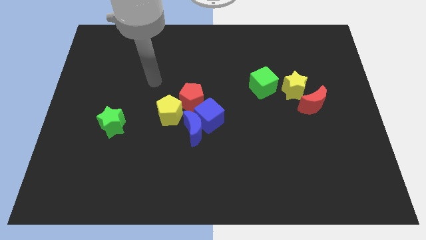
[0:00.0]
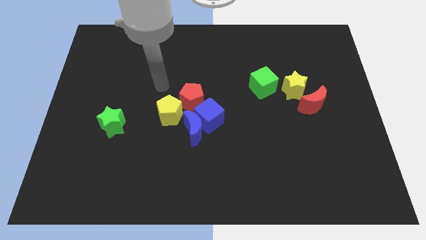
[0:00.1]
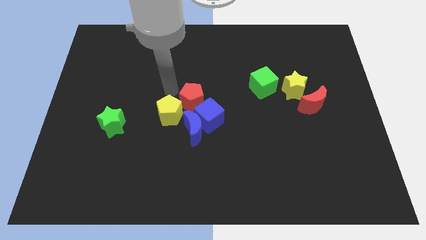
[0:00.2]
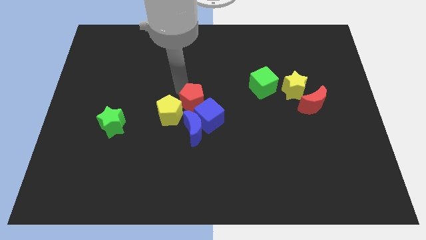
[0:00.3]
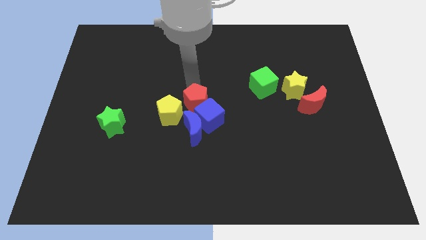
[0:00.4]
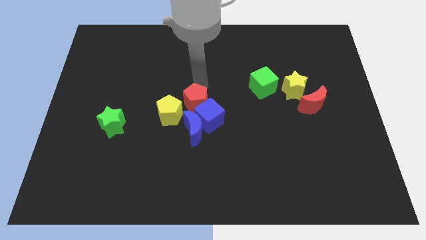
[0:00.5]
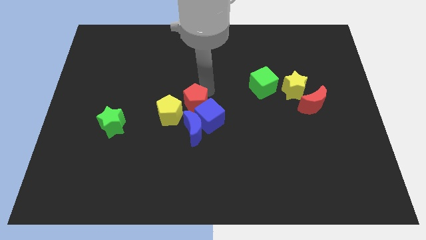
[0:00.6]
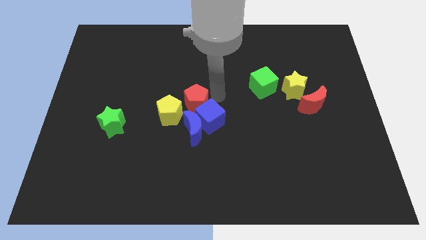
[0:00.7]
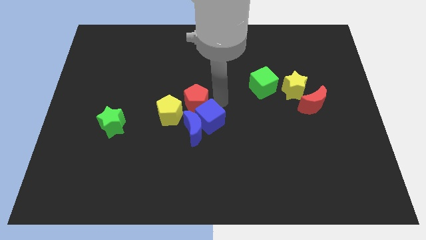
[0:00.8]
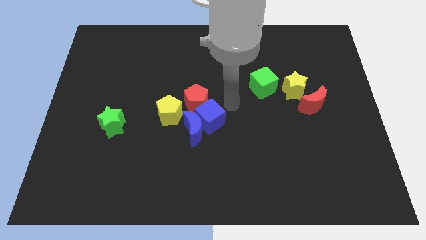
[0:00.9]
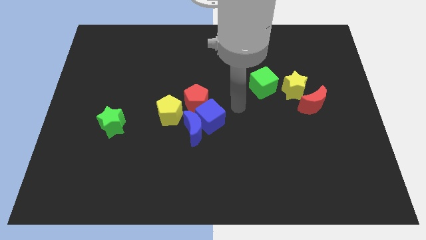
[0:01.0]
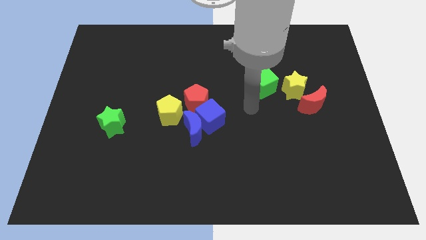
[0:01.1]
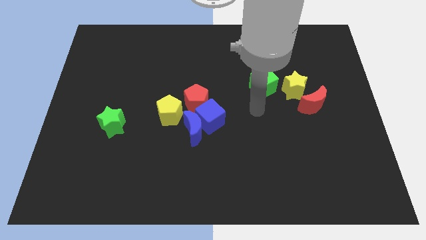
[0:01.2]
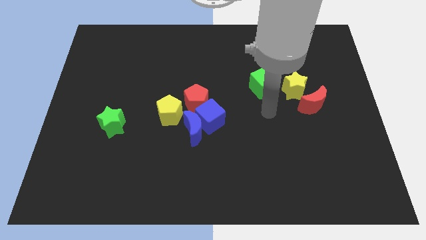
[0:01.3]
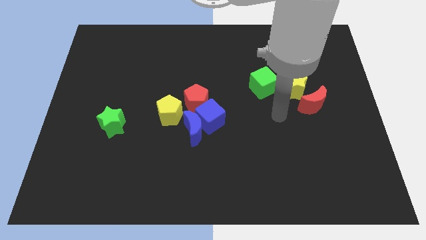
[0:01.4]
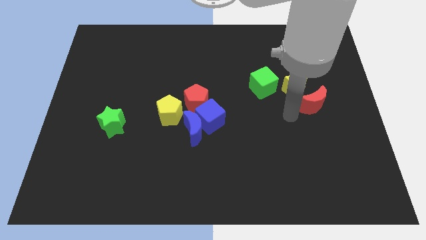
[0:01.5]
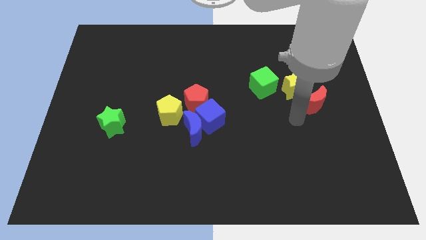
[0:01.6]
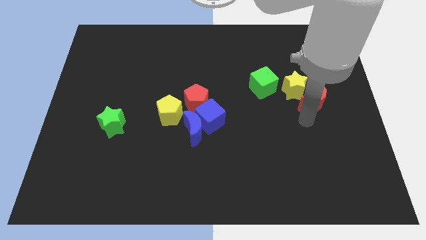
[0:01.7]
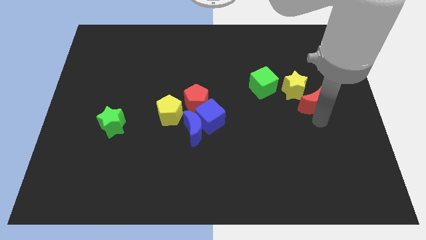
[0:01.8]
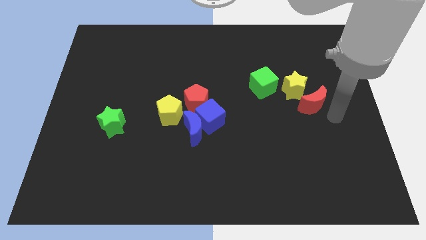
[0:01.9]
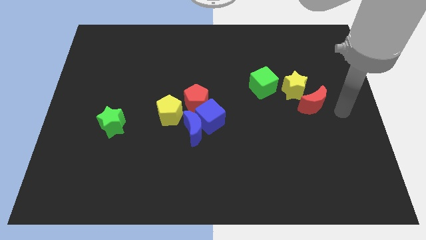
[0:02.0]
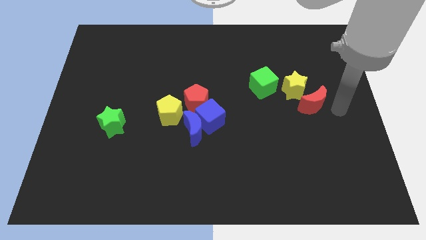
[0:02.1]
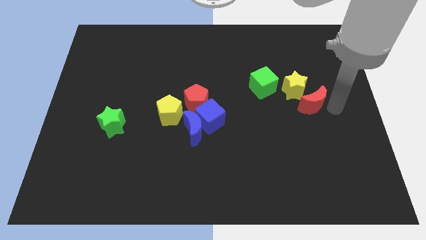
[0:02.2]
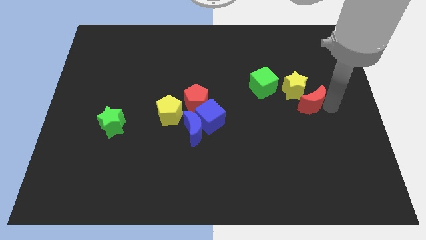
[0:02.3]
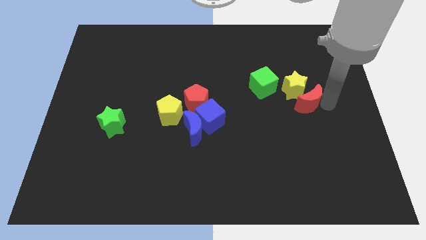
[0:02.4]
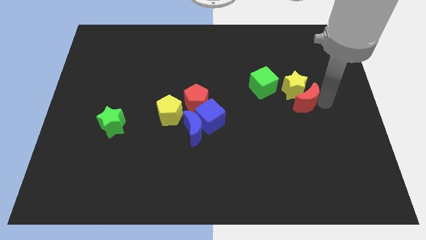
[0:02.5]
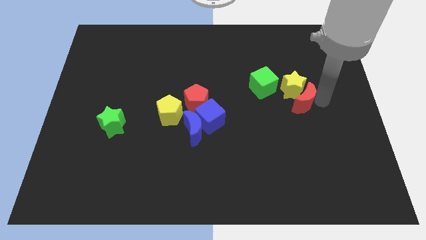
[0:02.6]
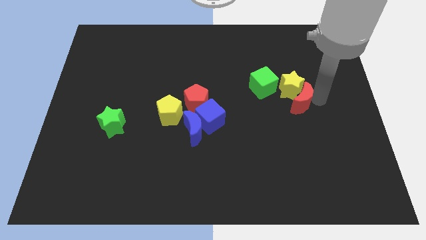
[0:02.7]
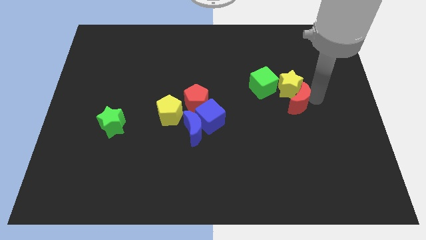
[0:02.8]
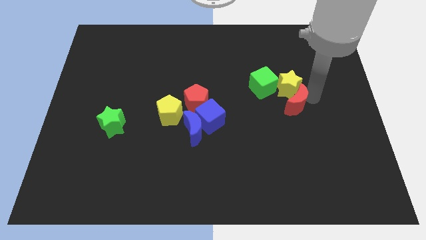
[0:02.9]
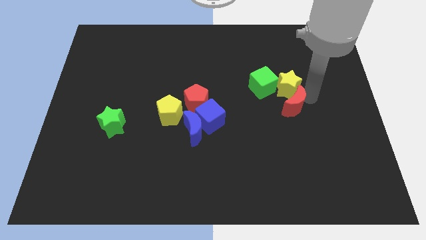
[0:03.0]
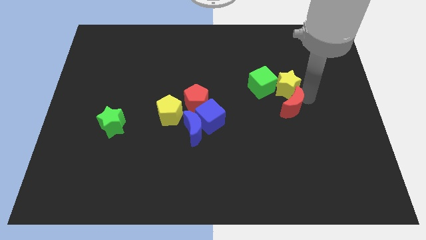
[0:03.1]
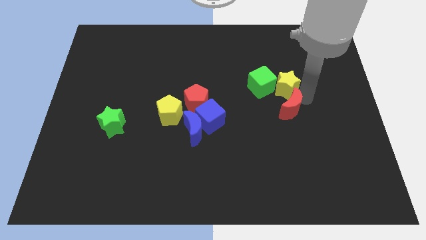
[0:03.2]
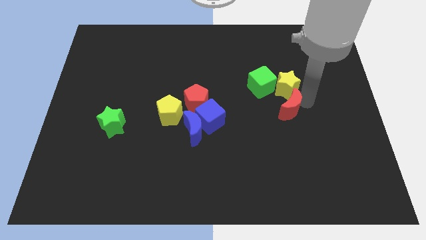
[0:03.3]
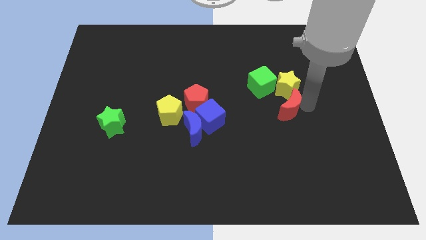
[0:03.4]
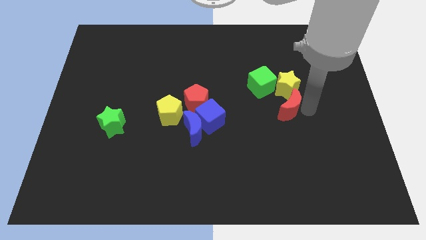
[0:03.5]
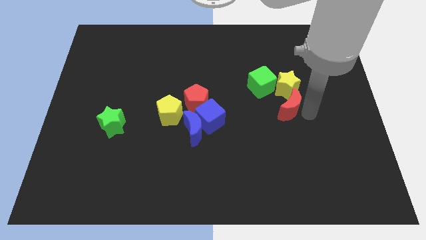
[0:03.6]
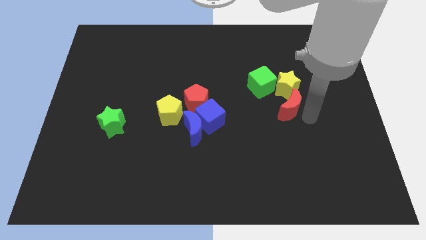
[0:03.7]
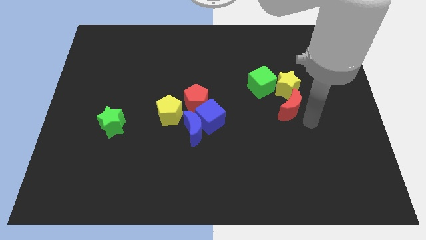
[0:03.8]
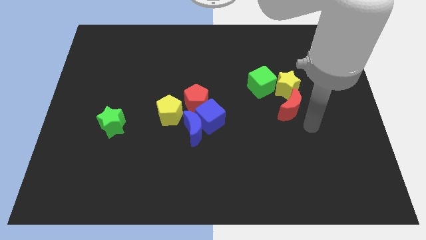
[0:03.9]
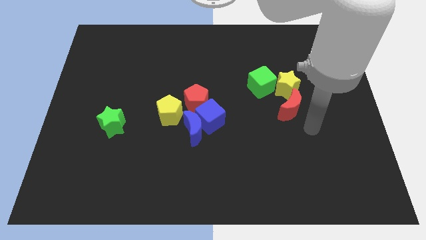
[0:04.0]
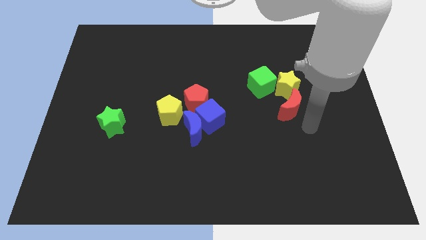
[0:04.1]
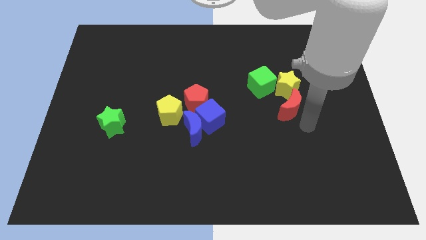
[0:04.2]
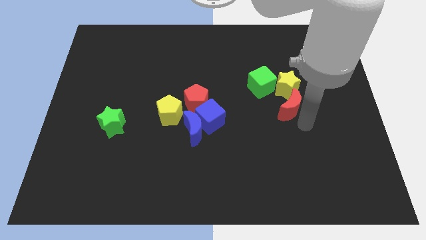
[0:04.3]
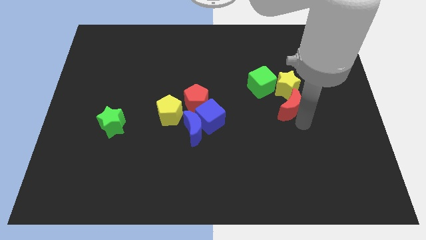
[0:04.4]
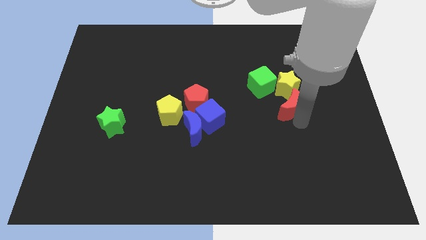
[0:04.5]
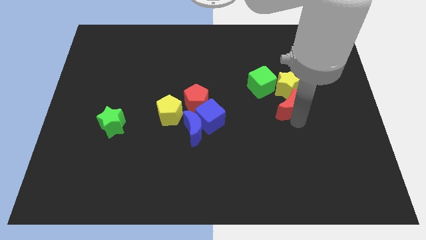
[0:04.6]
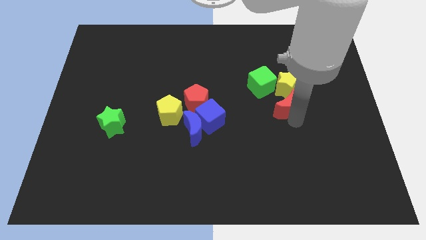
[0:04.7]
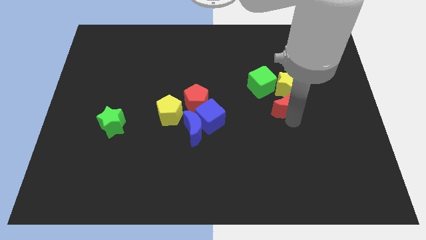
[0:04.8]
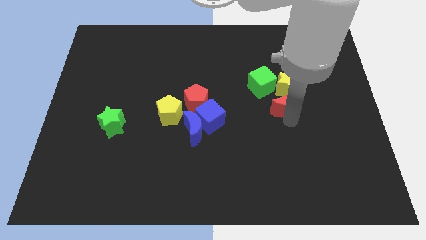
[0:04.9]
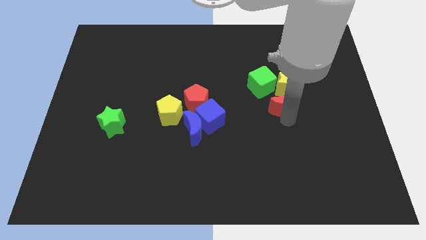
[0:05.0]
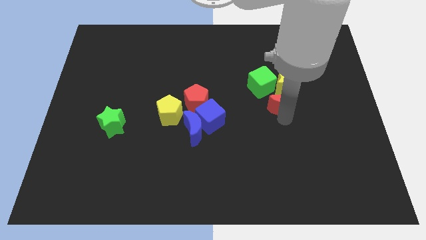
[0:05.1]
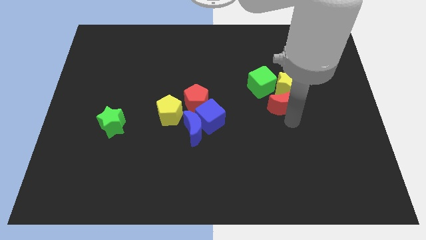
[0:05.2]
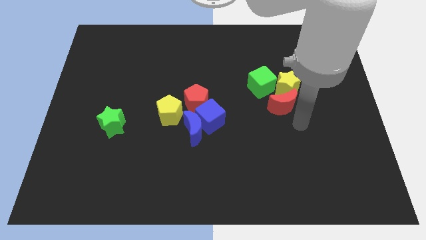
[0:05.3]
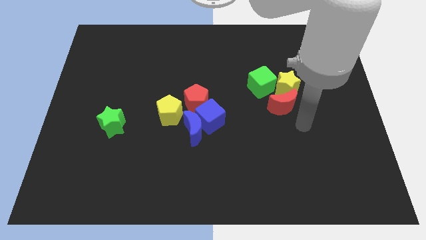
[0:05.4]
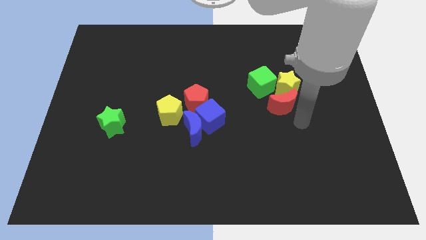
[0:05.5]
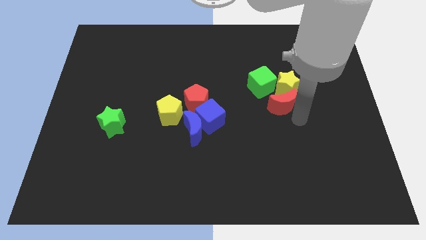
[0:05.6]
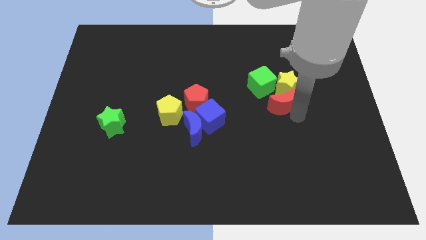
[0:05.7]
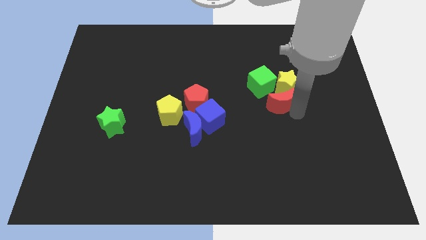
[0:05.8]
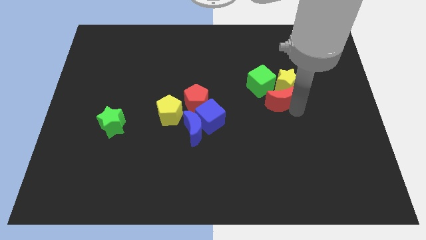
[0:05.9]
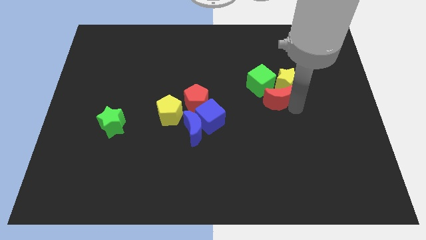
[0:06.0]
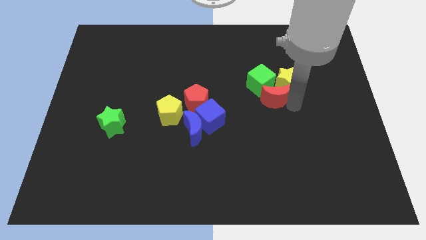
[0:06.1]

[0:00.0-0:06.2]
put the red moon towards the green cube

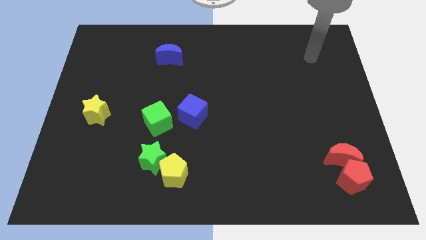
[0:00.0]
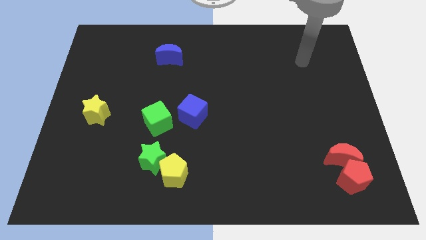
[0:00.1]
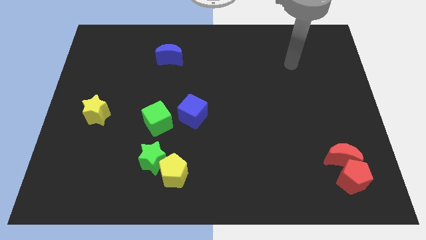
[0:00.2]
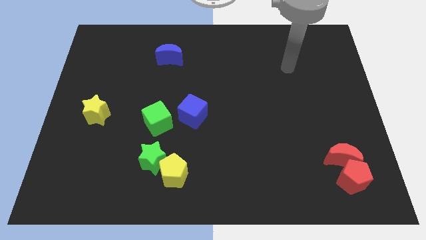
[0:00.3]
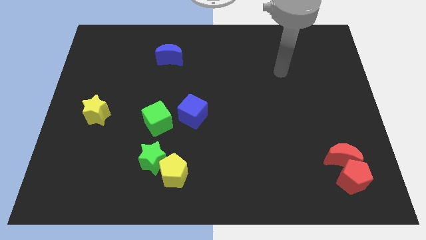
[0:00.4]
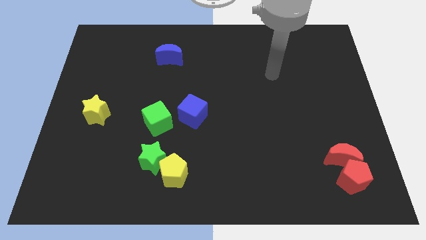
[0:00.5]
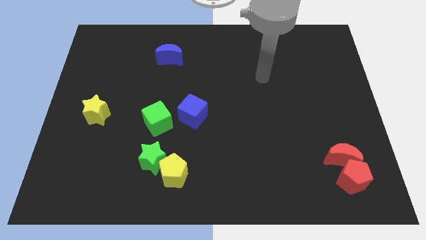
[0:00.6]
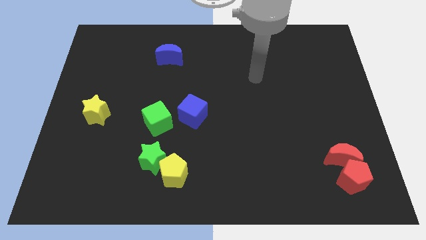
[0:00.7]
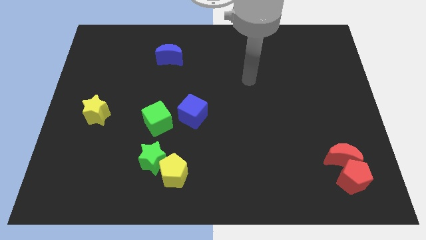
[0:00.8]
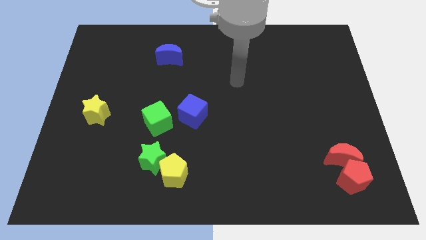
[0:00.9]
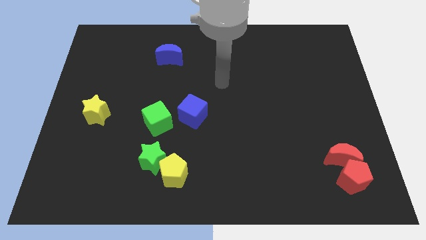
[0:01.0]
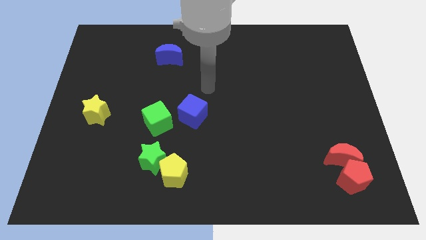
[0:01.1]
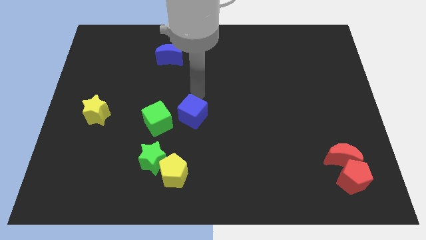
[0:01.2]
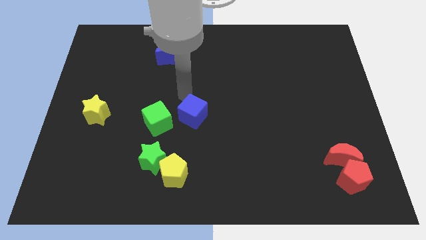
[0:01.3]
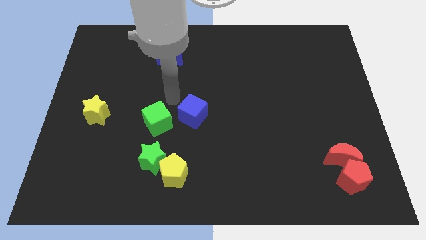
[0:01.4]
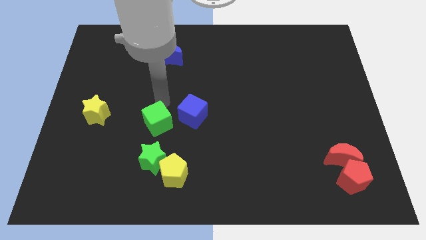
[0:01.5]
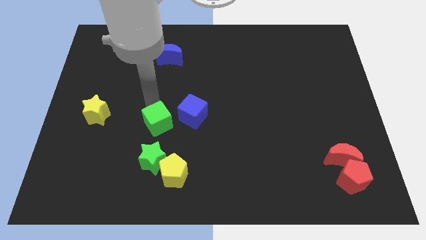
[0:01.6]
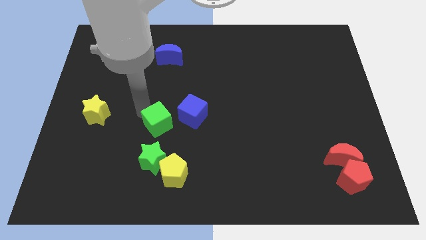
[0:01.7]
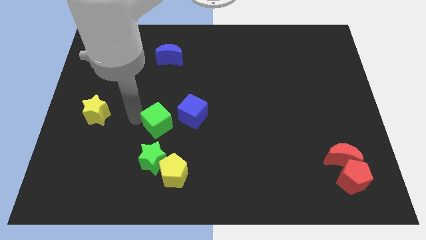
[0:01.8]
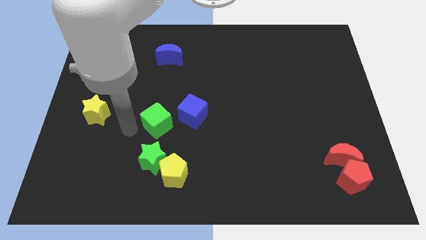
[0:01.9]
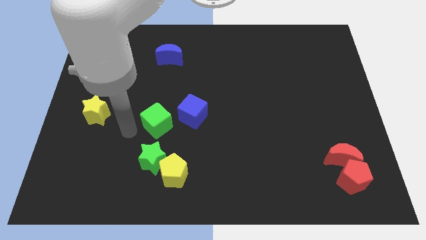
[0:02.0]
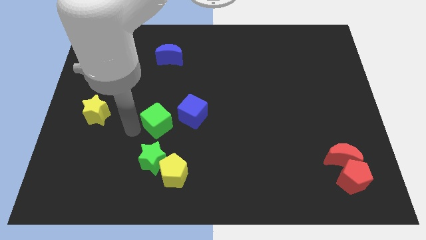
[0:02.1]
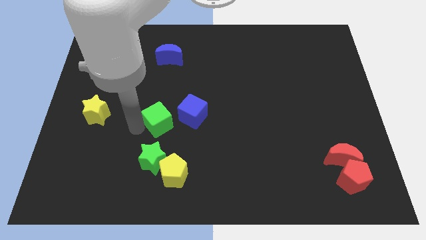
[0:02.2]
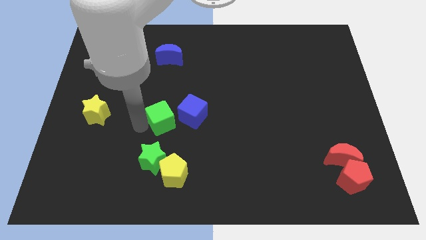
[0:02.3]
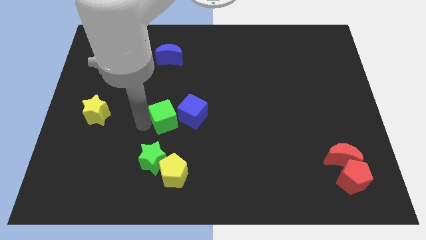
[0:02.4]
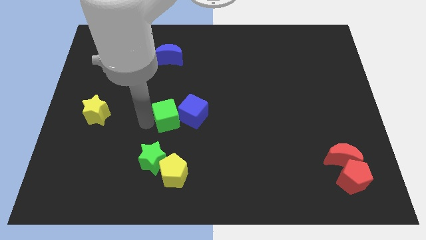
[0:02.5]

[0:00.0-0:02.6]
slide the green cube close to the blue cube
